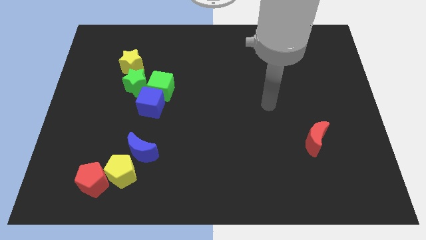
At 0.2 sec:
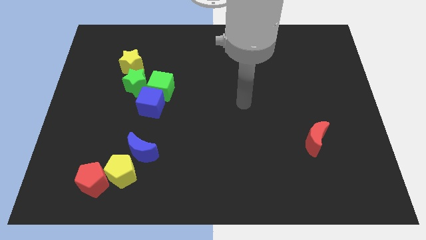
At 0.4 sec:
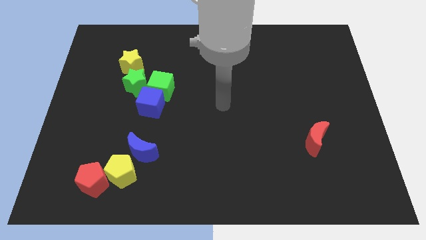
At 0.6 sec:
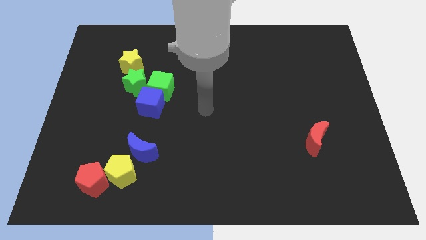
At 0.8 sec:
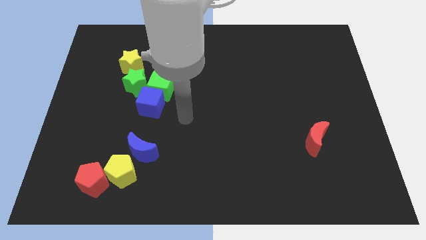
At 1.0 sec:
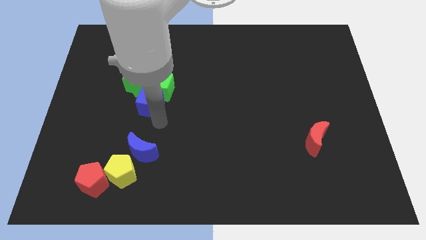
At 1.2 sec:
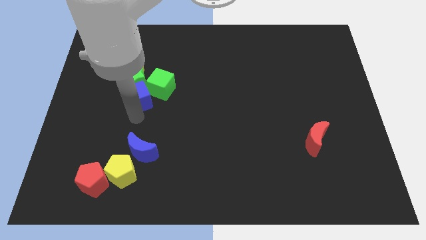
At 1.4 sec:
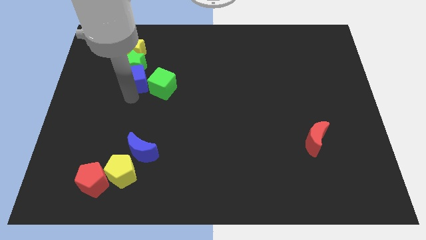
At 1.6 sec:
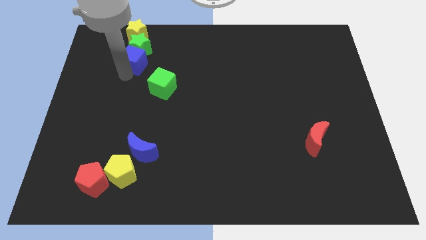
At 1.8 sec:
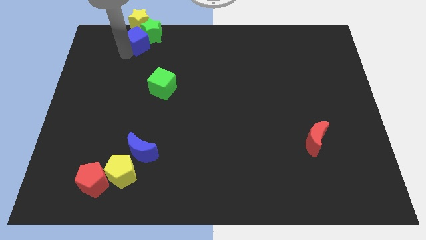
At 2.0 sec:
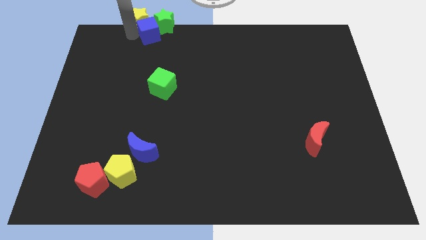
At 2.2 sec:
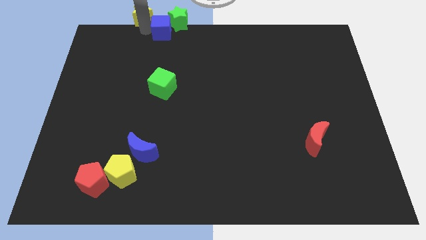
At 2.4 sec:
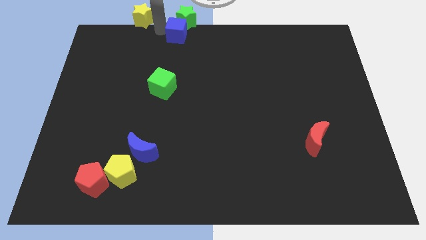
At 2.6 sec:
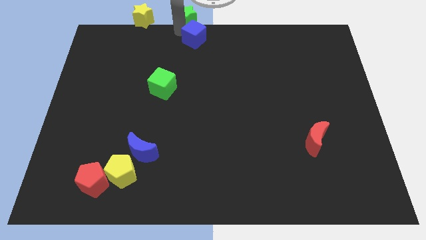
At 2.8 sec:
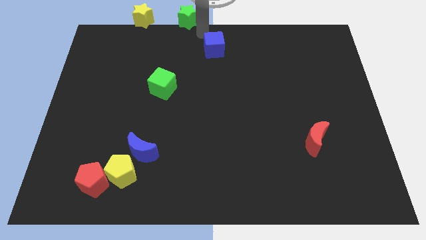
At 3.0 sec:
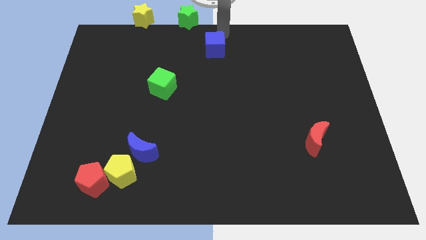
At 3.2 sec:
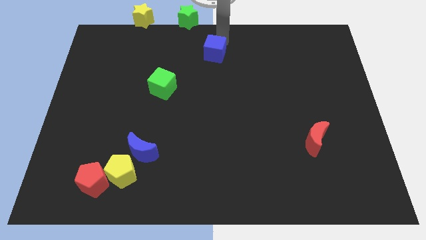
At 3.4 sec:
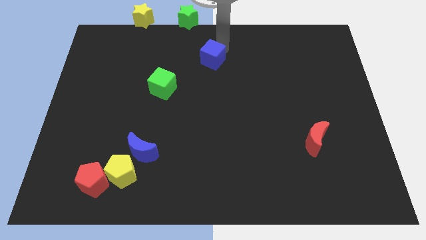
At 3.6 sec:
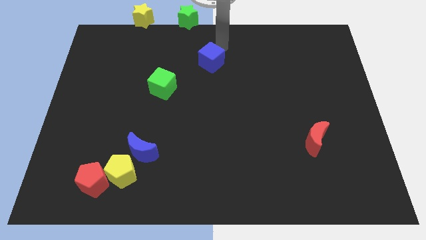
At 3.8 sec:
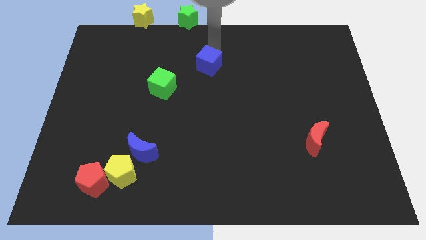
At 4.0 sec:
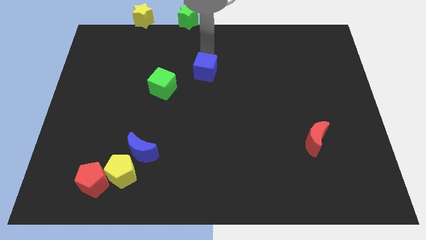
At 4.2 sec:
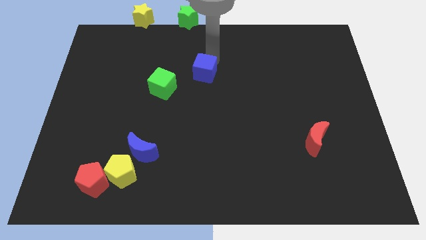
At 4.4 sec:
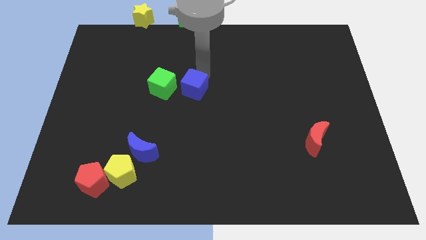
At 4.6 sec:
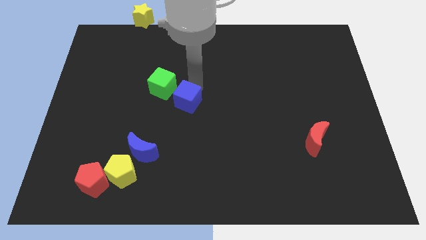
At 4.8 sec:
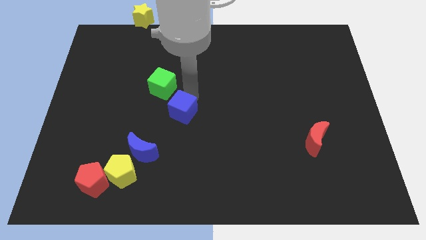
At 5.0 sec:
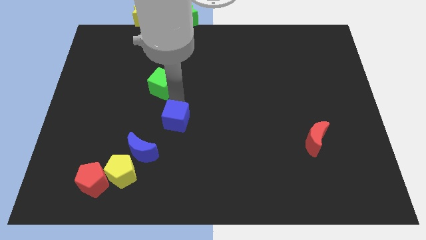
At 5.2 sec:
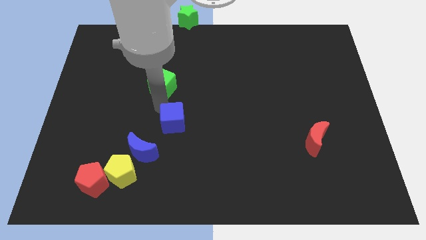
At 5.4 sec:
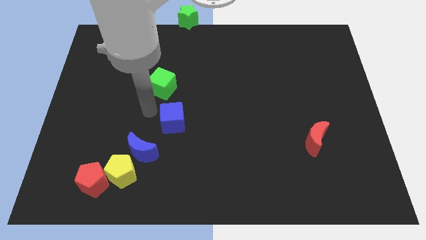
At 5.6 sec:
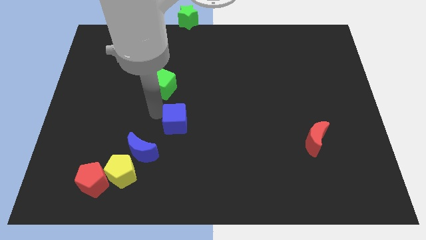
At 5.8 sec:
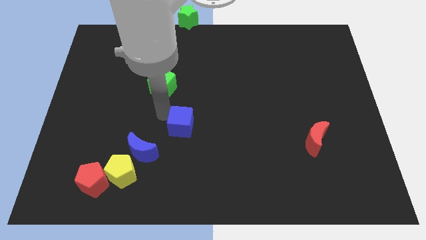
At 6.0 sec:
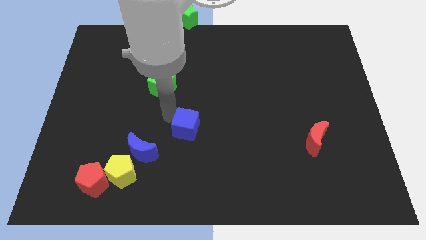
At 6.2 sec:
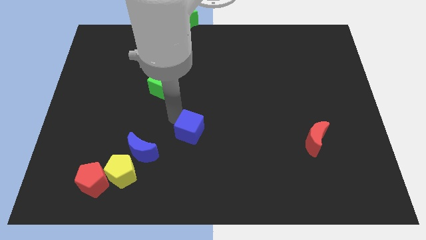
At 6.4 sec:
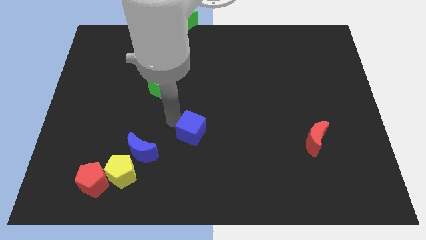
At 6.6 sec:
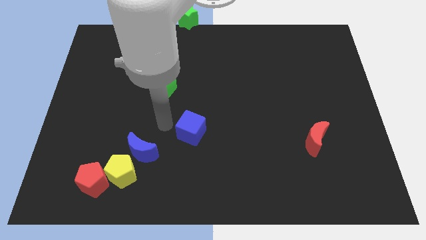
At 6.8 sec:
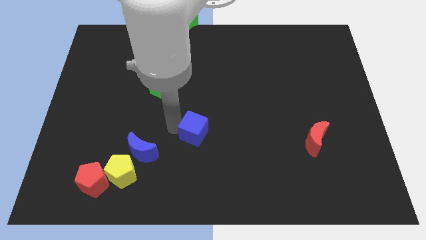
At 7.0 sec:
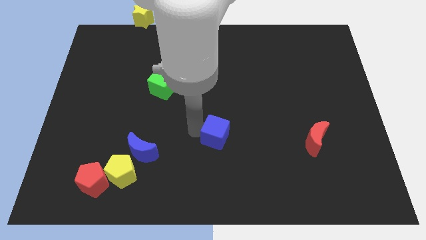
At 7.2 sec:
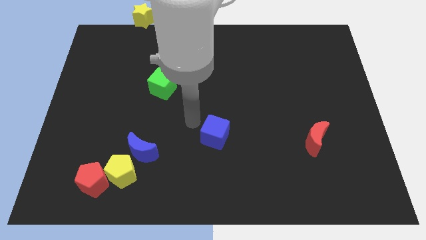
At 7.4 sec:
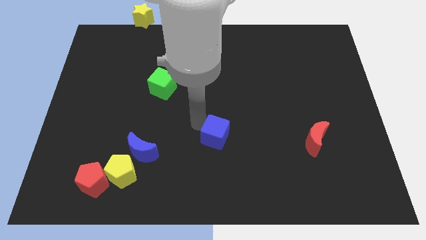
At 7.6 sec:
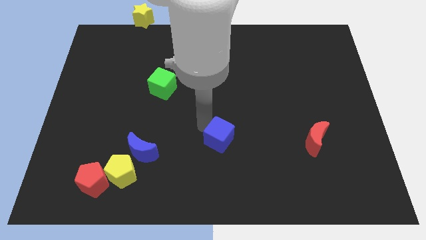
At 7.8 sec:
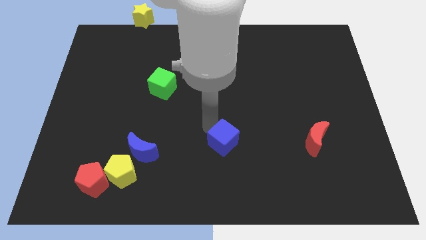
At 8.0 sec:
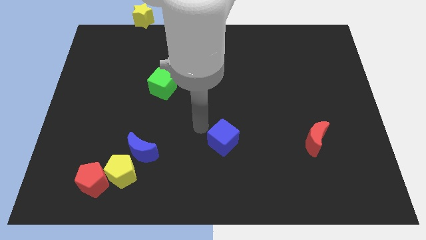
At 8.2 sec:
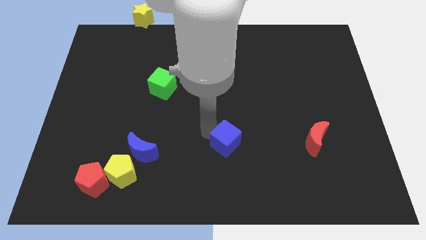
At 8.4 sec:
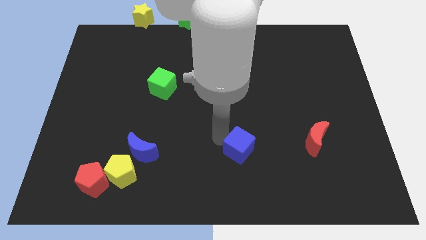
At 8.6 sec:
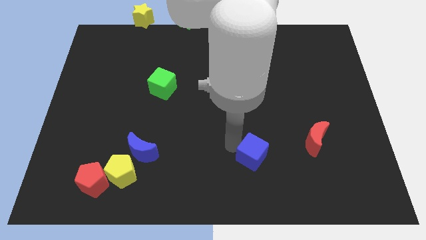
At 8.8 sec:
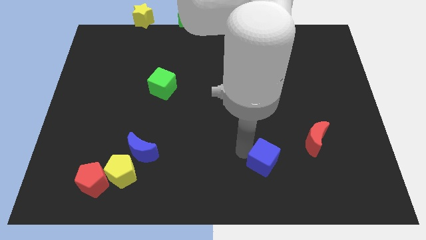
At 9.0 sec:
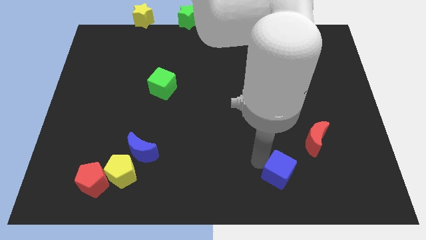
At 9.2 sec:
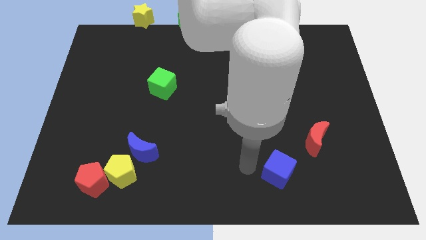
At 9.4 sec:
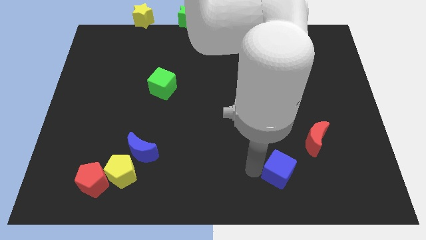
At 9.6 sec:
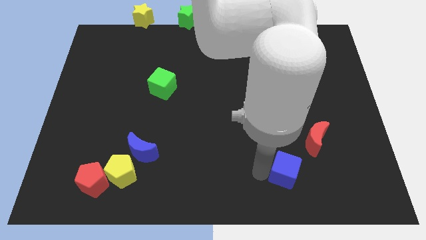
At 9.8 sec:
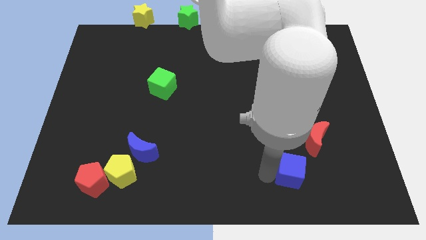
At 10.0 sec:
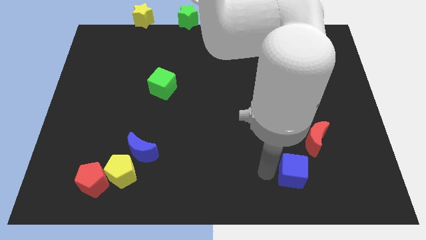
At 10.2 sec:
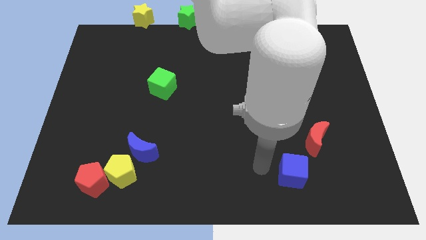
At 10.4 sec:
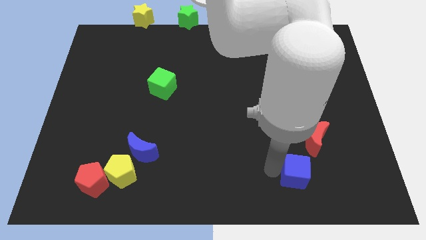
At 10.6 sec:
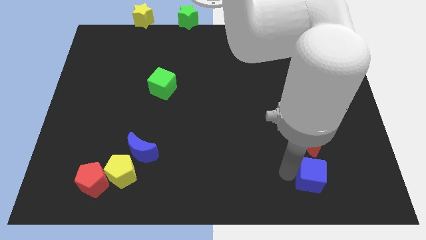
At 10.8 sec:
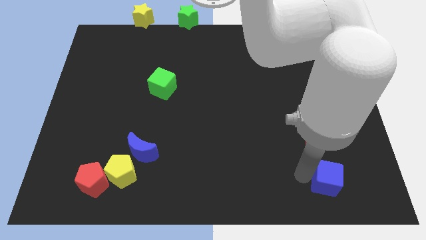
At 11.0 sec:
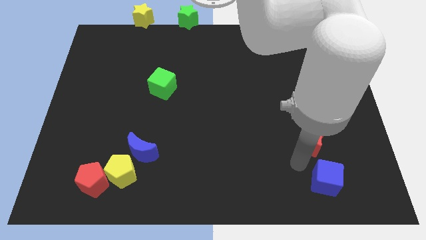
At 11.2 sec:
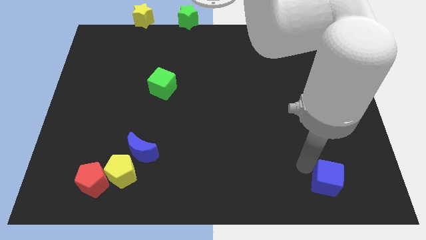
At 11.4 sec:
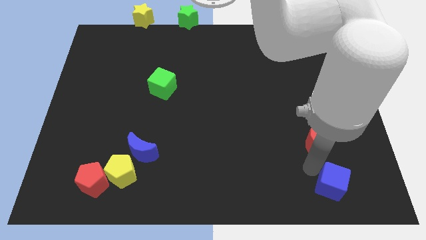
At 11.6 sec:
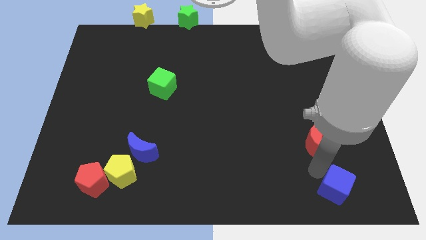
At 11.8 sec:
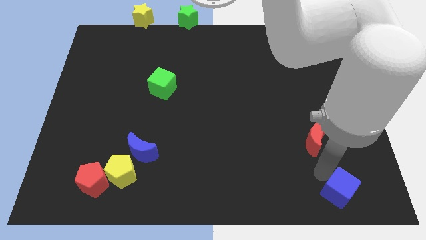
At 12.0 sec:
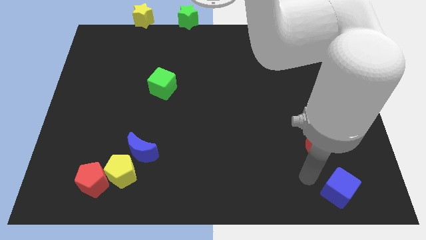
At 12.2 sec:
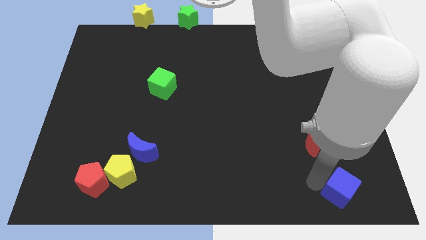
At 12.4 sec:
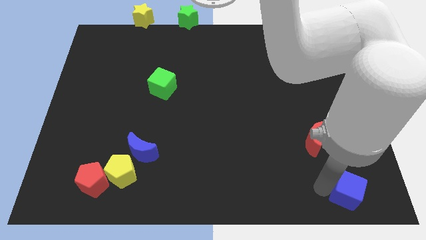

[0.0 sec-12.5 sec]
put the blue cube to the bottom right corner

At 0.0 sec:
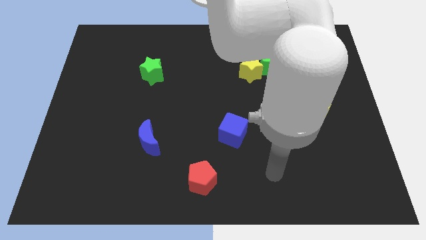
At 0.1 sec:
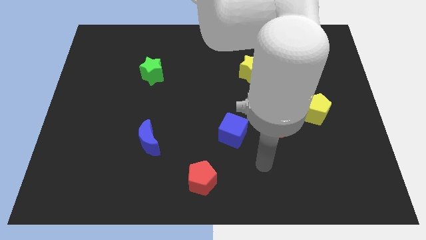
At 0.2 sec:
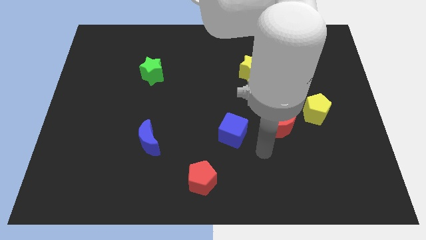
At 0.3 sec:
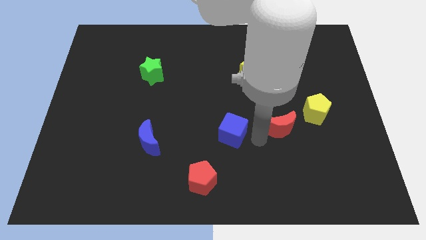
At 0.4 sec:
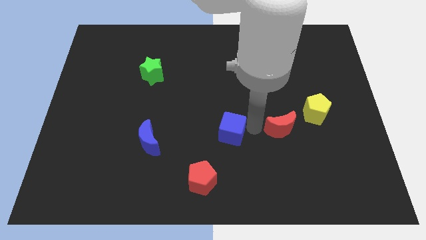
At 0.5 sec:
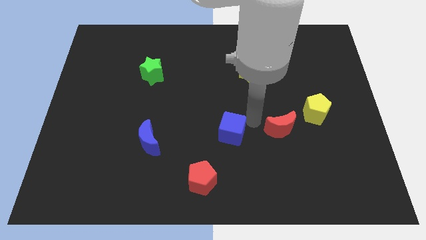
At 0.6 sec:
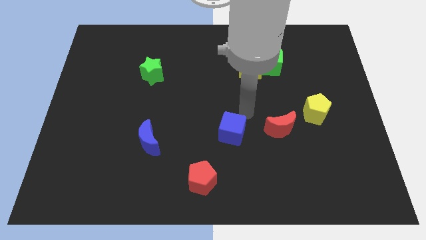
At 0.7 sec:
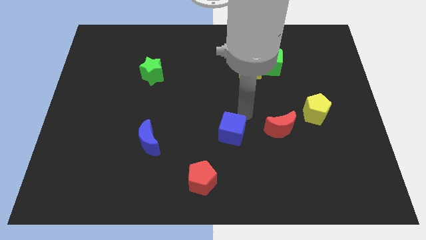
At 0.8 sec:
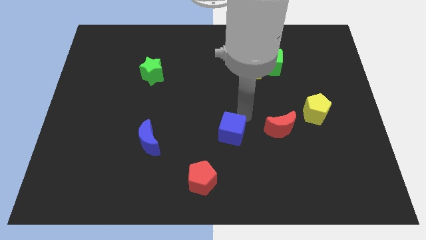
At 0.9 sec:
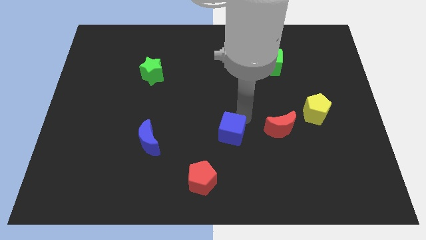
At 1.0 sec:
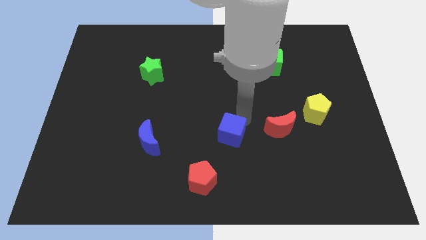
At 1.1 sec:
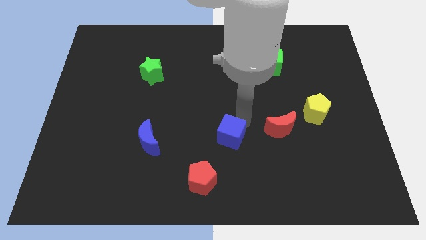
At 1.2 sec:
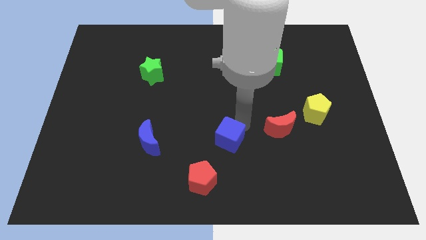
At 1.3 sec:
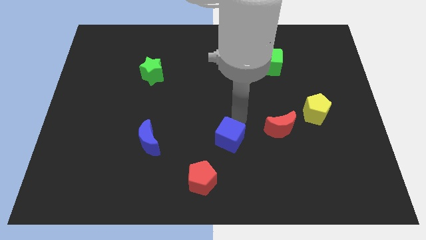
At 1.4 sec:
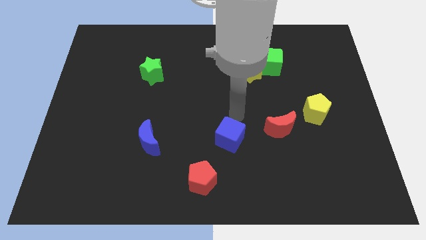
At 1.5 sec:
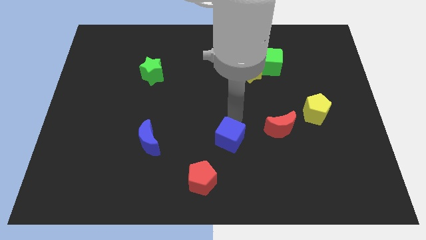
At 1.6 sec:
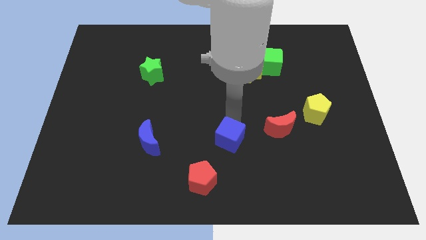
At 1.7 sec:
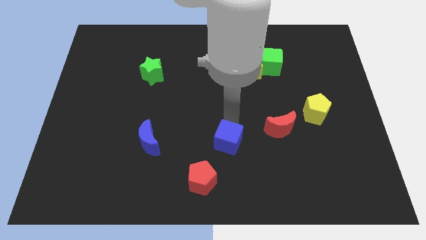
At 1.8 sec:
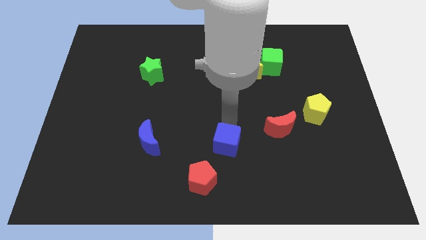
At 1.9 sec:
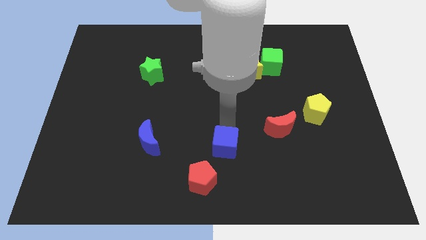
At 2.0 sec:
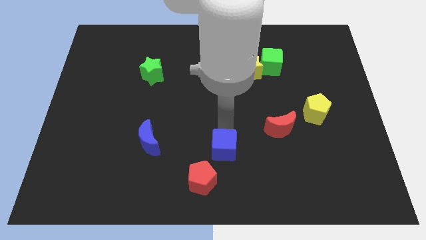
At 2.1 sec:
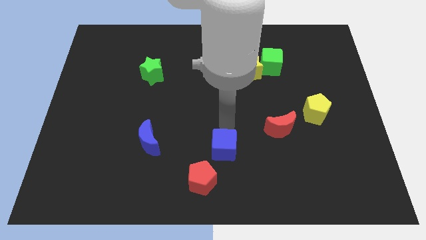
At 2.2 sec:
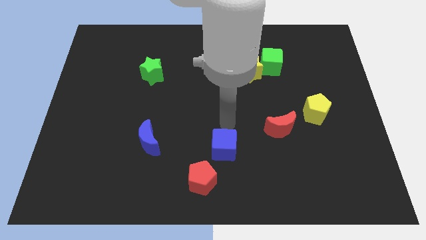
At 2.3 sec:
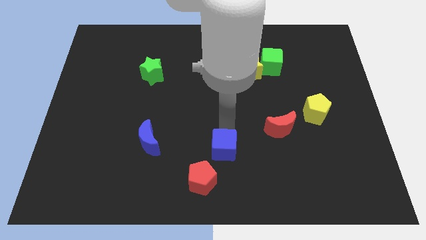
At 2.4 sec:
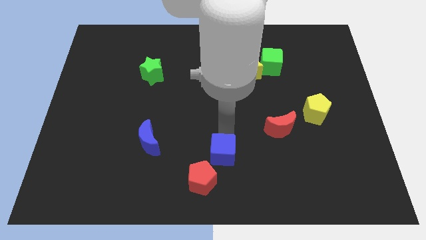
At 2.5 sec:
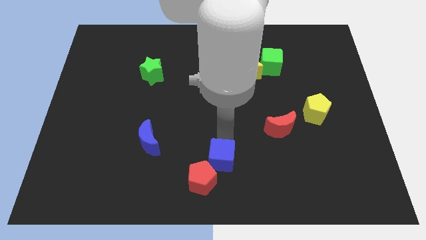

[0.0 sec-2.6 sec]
push the blue cube to the bottom
